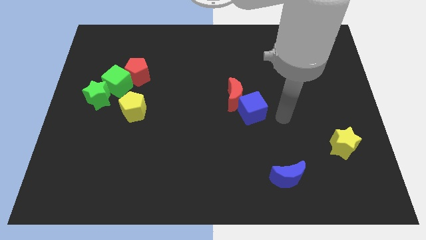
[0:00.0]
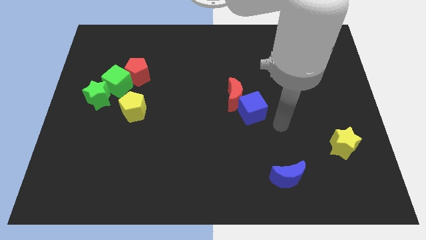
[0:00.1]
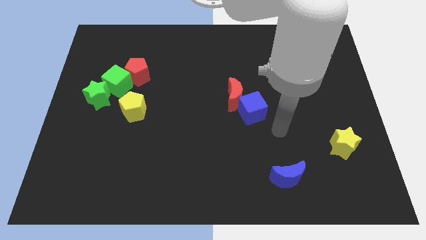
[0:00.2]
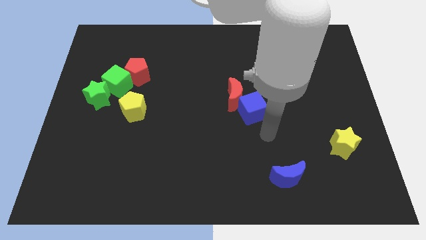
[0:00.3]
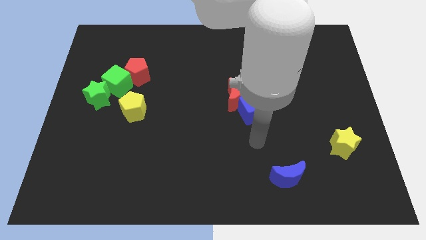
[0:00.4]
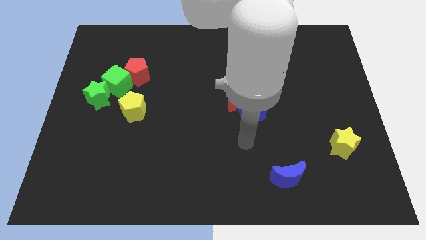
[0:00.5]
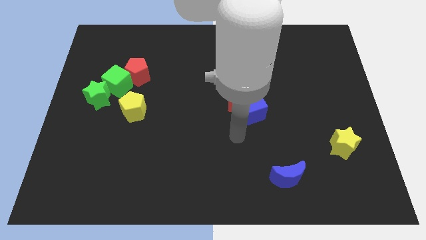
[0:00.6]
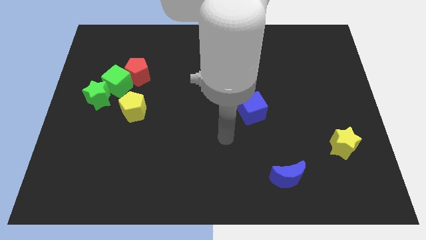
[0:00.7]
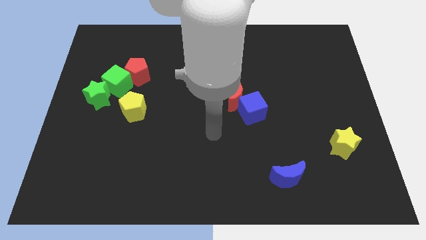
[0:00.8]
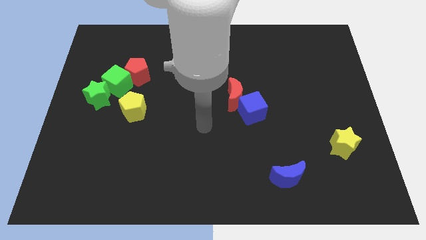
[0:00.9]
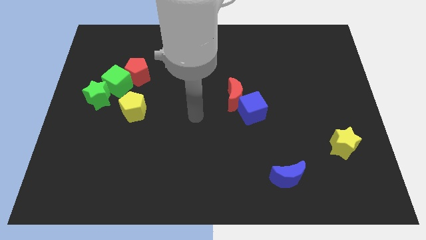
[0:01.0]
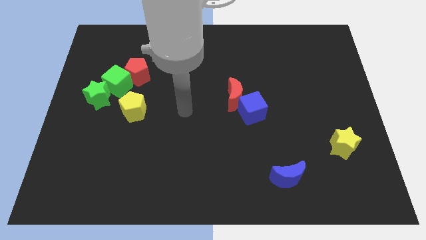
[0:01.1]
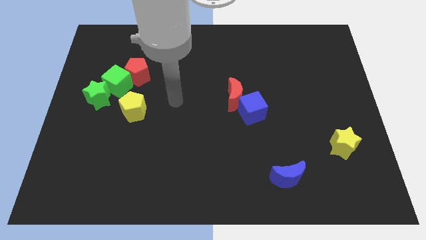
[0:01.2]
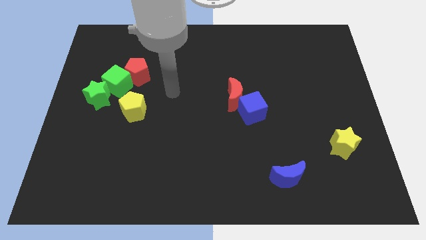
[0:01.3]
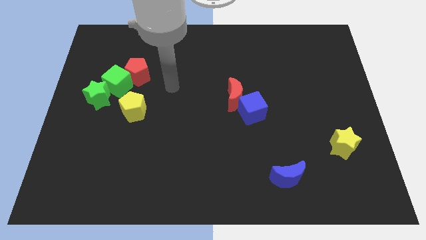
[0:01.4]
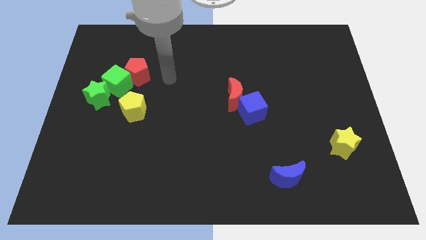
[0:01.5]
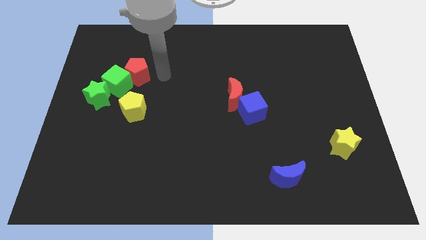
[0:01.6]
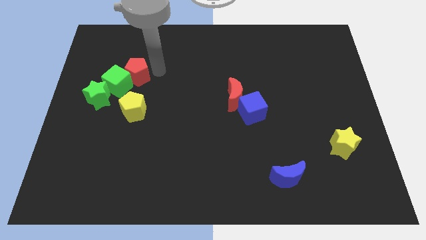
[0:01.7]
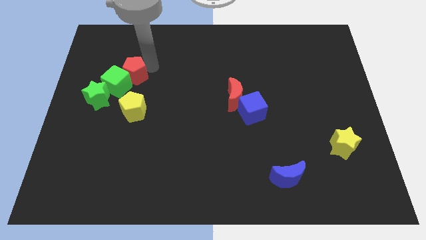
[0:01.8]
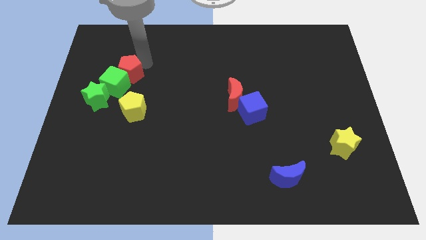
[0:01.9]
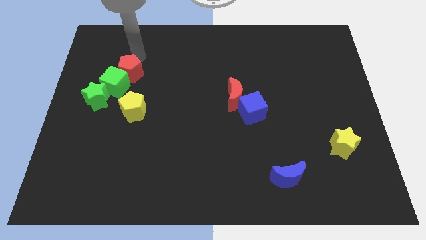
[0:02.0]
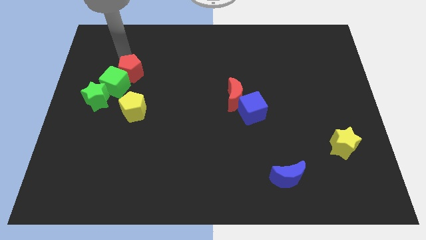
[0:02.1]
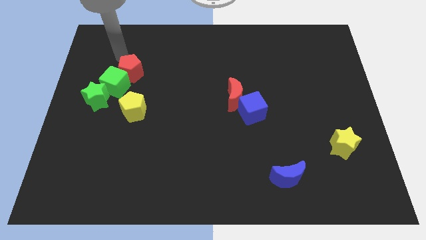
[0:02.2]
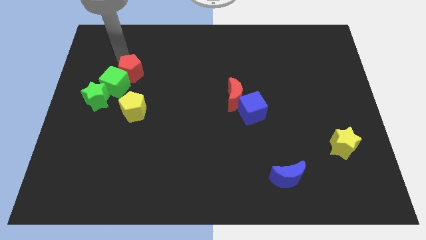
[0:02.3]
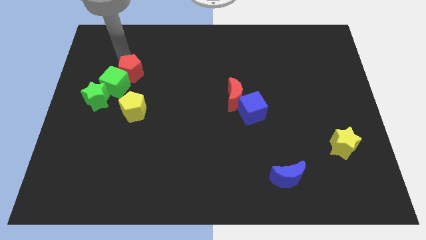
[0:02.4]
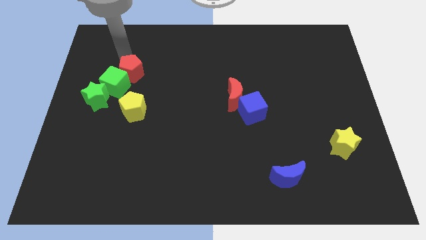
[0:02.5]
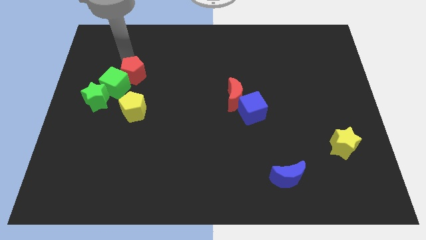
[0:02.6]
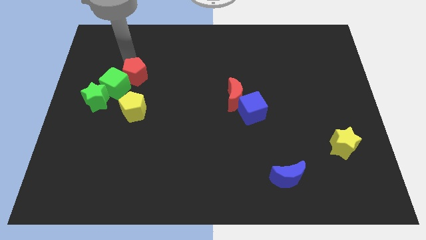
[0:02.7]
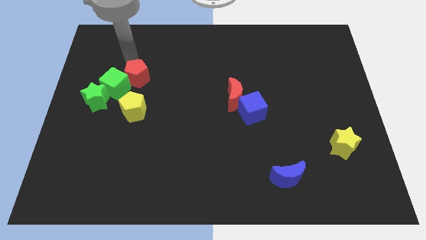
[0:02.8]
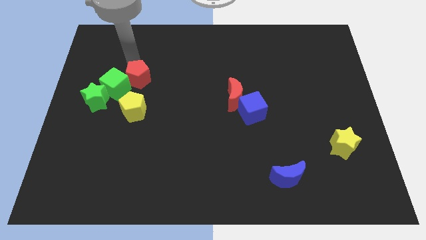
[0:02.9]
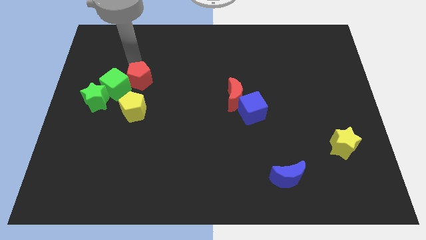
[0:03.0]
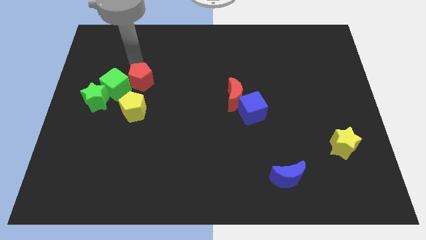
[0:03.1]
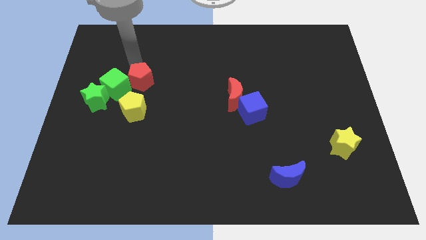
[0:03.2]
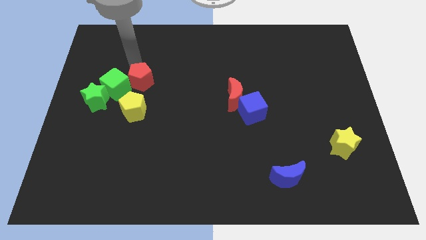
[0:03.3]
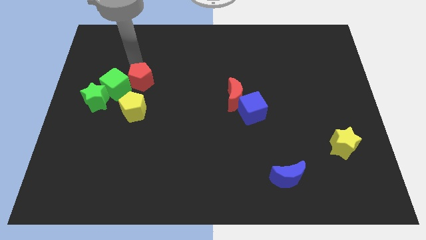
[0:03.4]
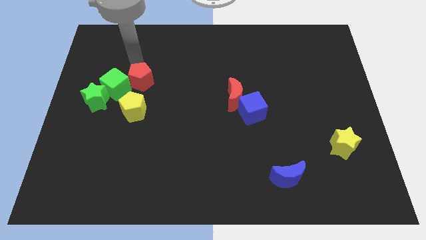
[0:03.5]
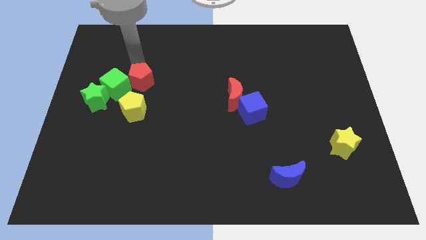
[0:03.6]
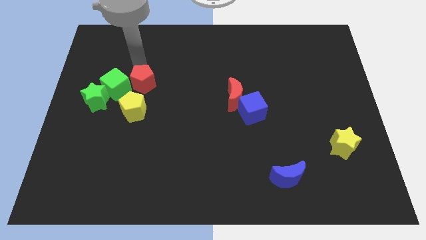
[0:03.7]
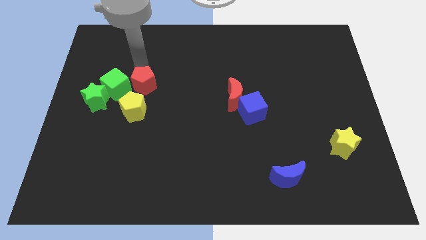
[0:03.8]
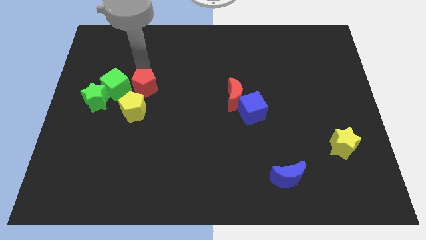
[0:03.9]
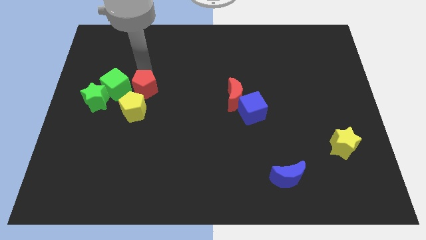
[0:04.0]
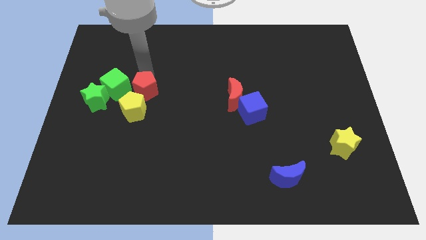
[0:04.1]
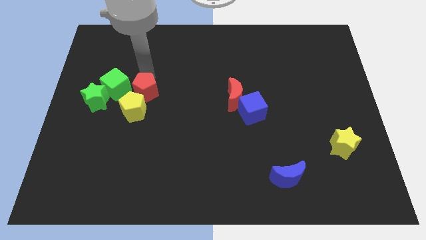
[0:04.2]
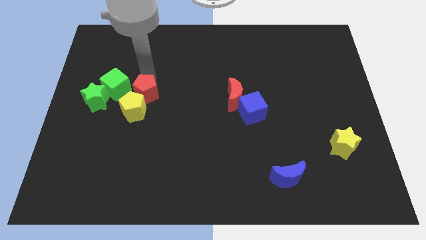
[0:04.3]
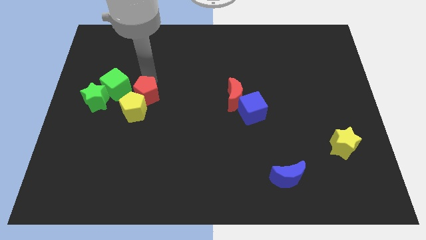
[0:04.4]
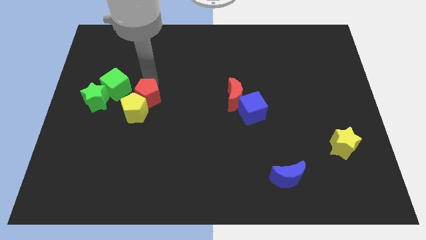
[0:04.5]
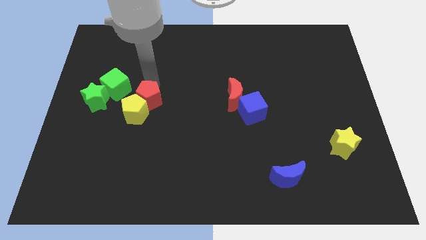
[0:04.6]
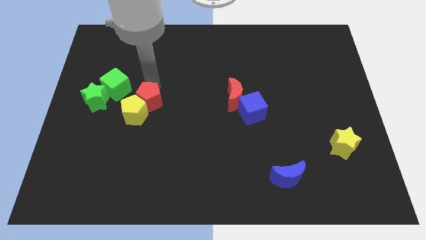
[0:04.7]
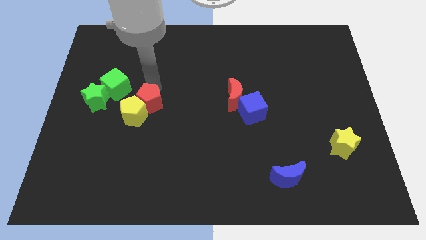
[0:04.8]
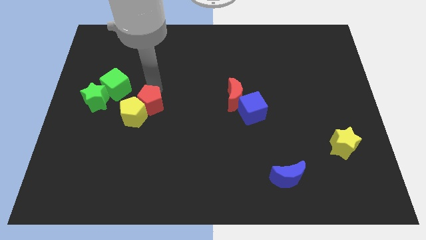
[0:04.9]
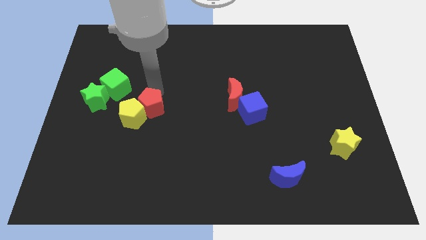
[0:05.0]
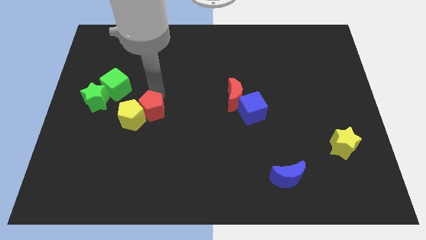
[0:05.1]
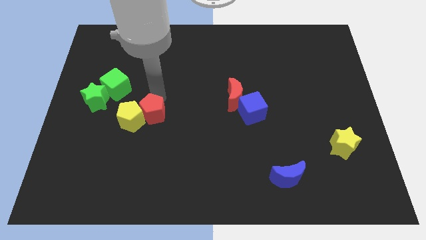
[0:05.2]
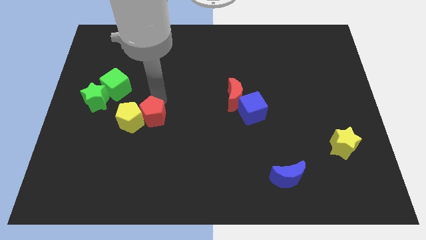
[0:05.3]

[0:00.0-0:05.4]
slide the red pentagon to the bottom right side of the yellow pentagon
